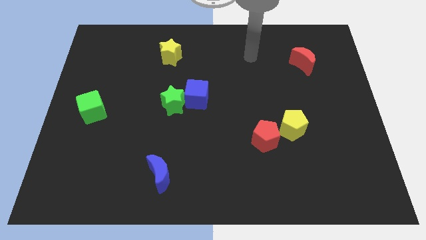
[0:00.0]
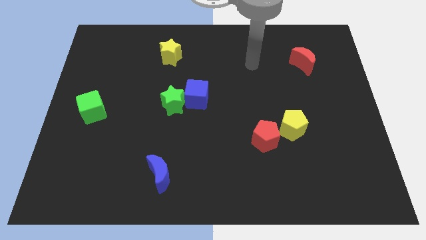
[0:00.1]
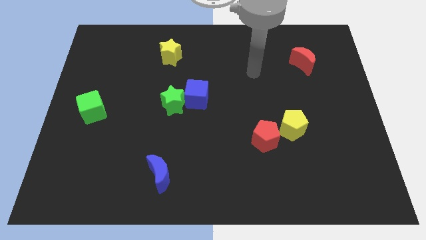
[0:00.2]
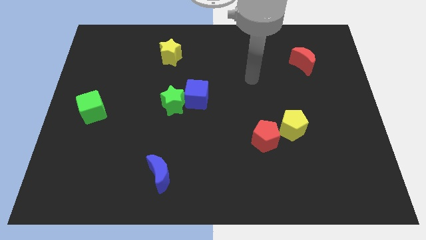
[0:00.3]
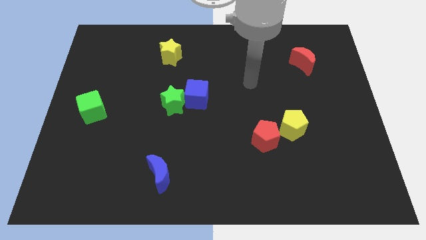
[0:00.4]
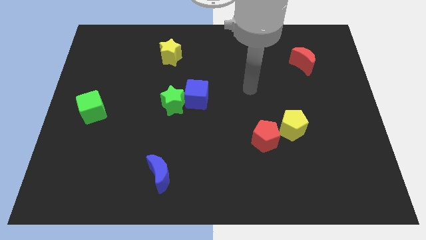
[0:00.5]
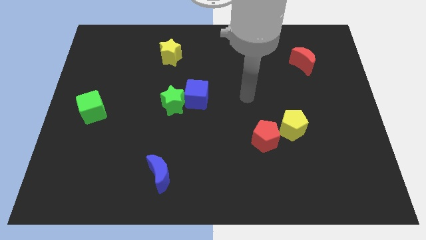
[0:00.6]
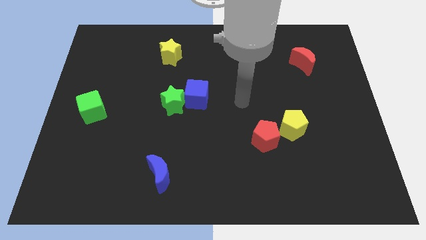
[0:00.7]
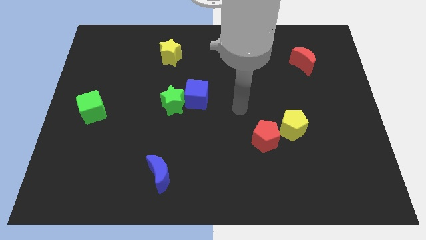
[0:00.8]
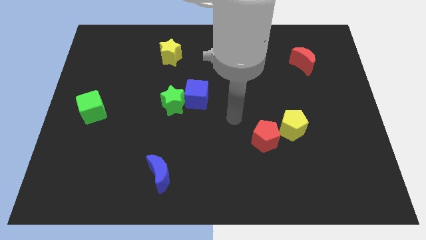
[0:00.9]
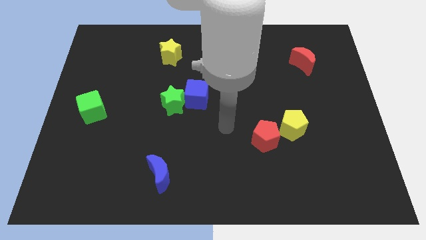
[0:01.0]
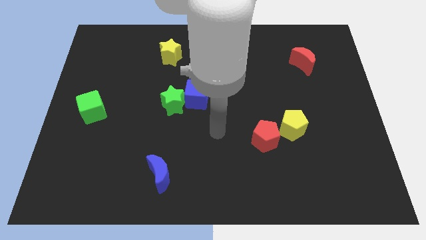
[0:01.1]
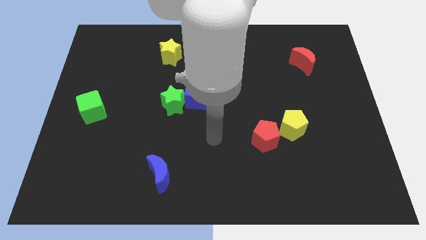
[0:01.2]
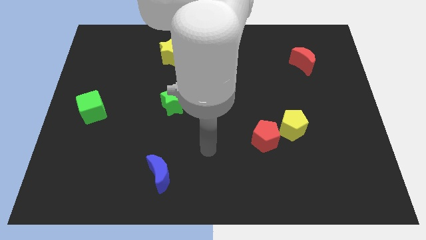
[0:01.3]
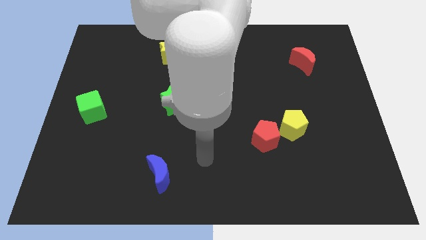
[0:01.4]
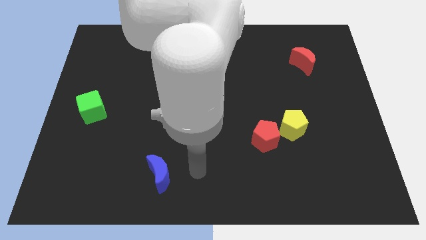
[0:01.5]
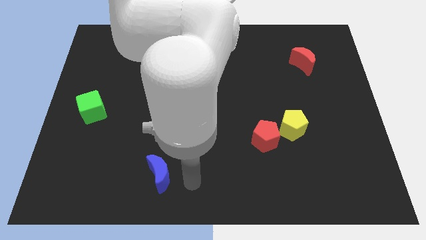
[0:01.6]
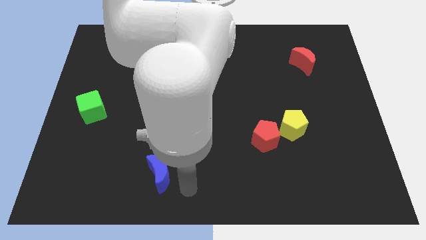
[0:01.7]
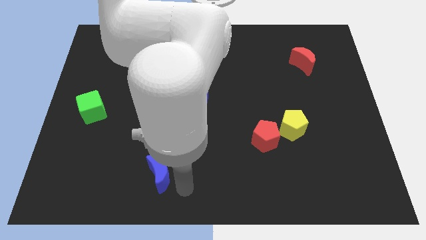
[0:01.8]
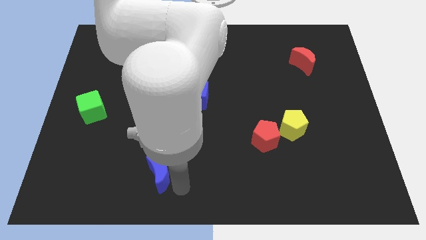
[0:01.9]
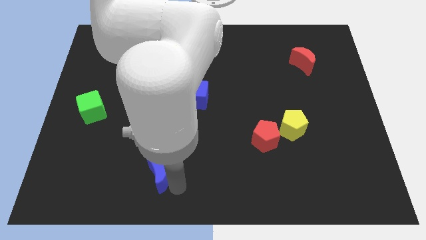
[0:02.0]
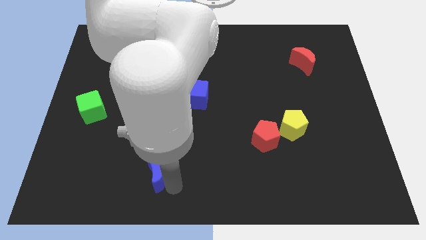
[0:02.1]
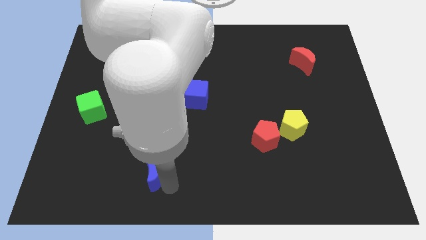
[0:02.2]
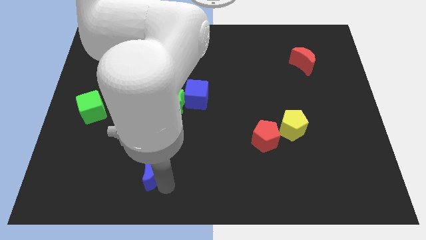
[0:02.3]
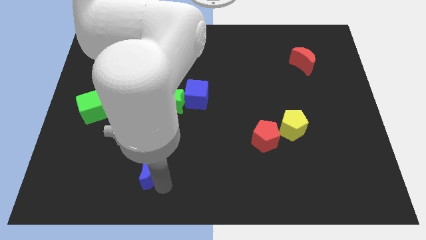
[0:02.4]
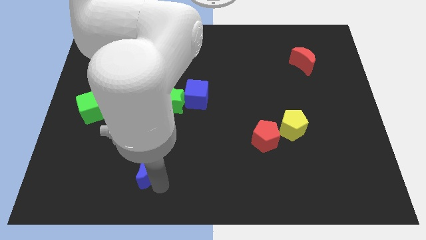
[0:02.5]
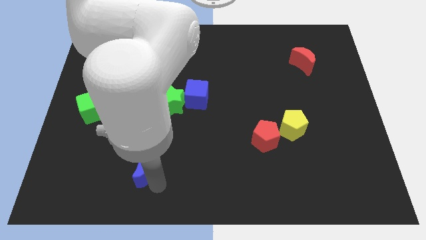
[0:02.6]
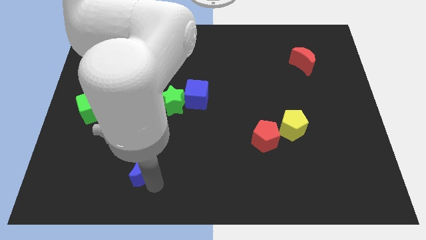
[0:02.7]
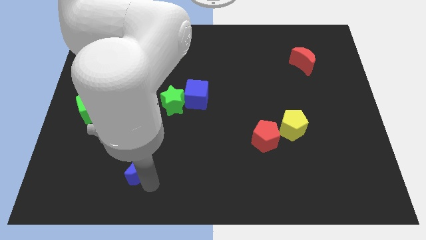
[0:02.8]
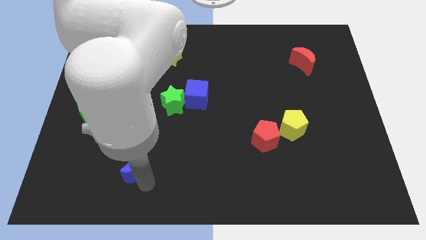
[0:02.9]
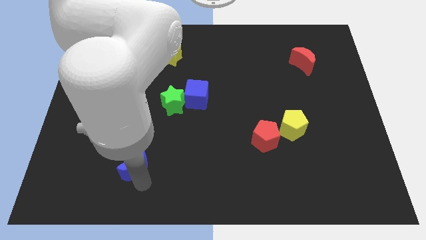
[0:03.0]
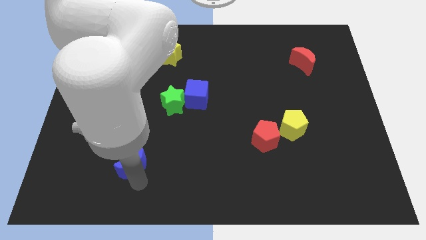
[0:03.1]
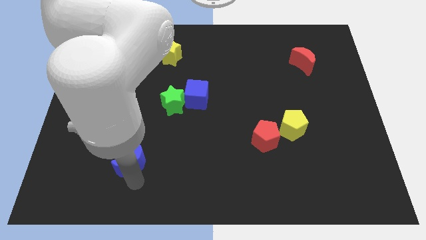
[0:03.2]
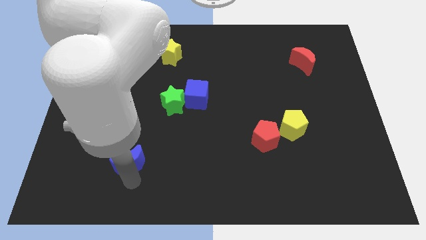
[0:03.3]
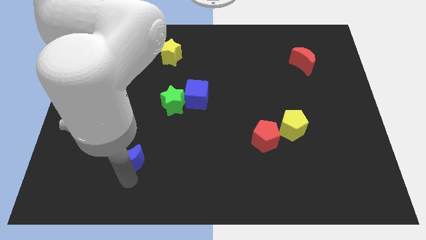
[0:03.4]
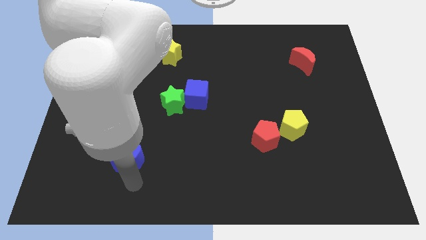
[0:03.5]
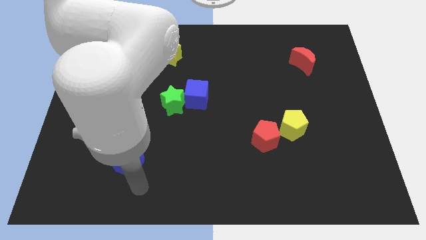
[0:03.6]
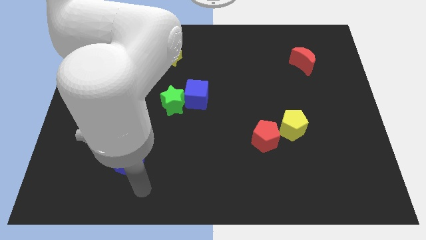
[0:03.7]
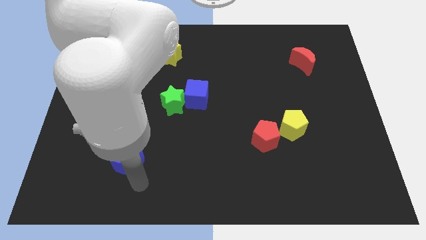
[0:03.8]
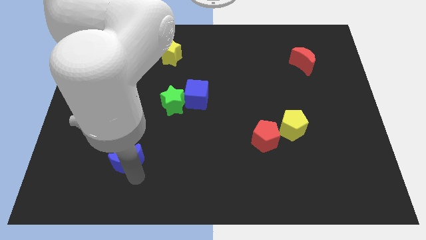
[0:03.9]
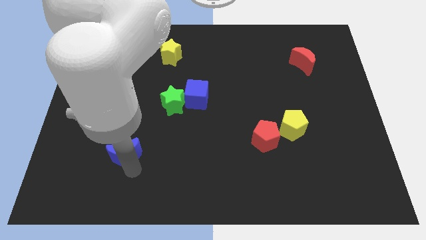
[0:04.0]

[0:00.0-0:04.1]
slide the blue moon somewhat up and left

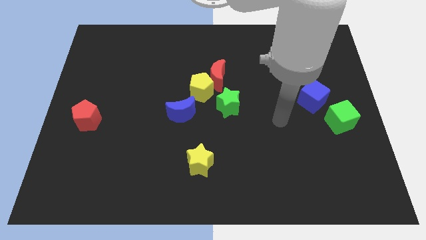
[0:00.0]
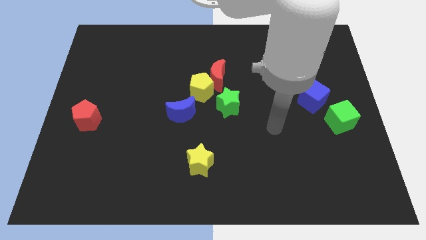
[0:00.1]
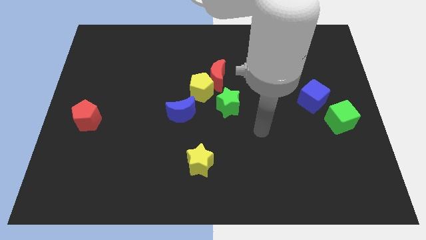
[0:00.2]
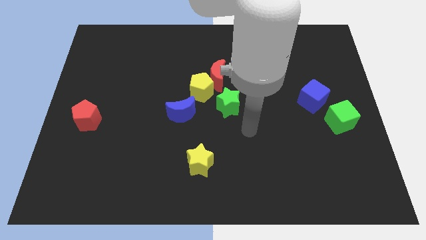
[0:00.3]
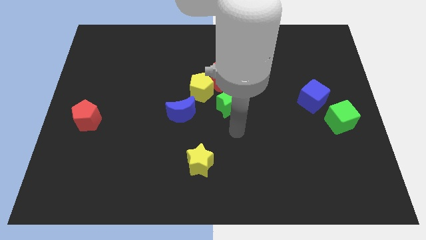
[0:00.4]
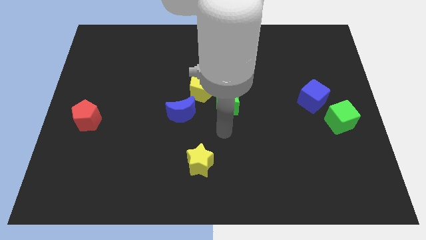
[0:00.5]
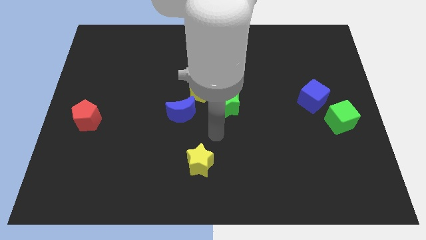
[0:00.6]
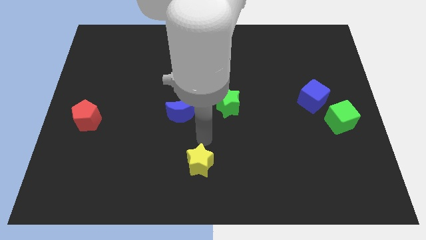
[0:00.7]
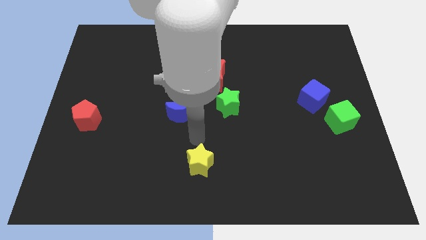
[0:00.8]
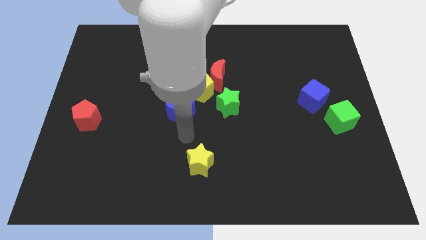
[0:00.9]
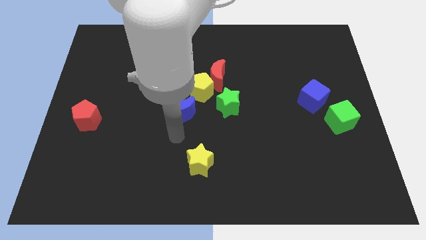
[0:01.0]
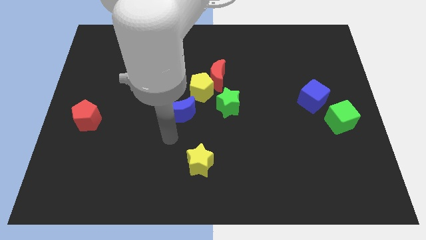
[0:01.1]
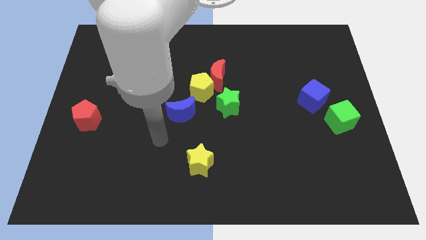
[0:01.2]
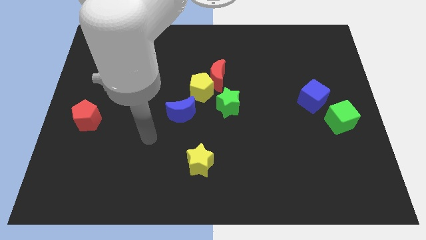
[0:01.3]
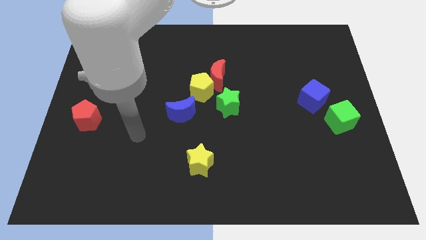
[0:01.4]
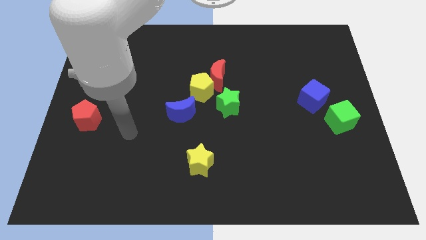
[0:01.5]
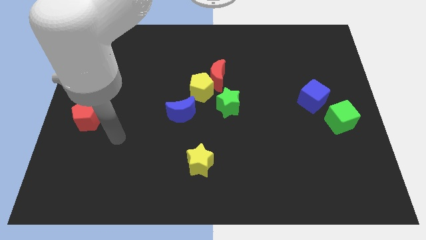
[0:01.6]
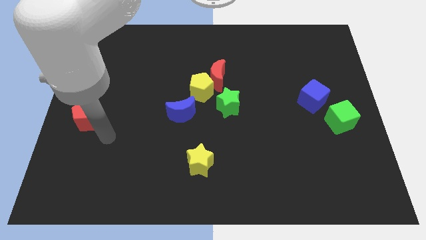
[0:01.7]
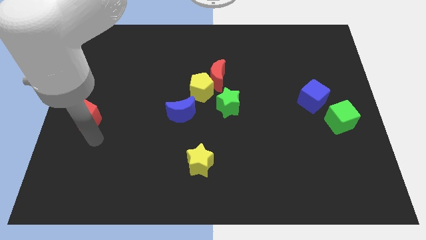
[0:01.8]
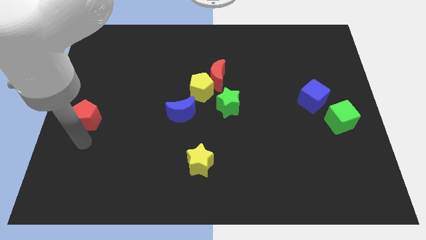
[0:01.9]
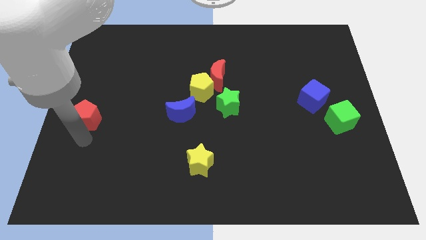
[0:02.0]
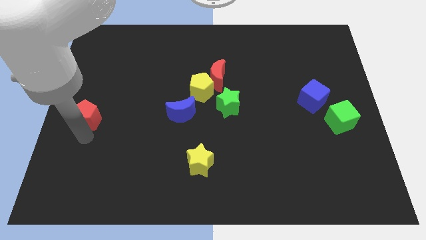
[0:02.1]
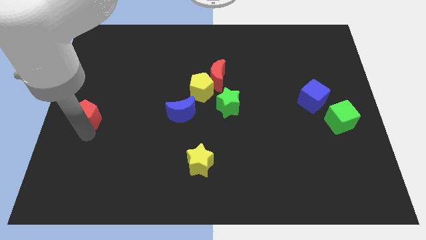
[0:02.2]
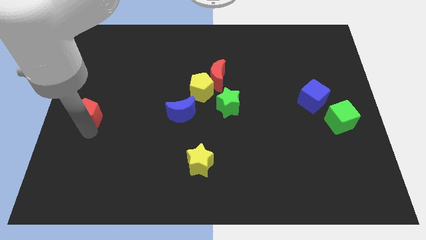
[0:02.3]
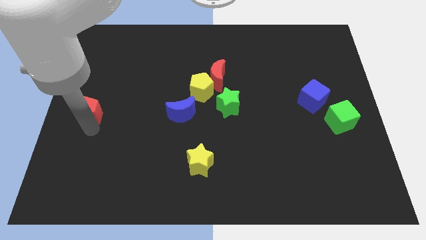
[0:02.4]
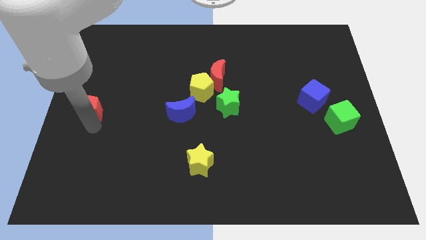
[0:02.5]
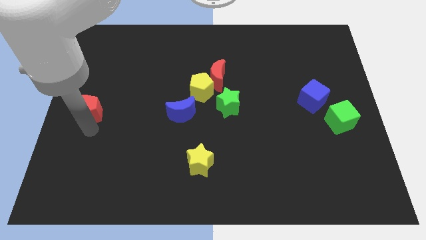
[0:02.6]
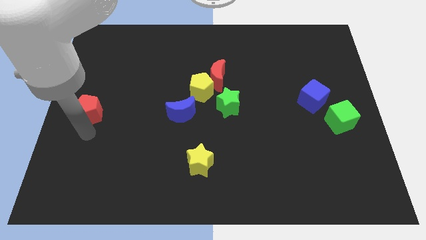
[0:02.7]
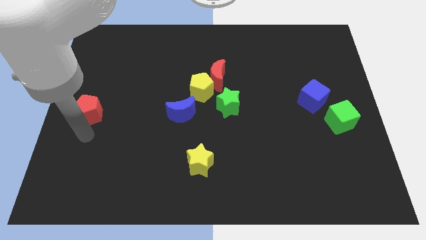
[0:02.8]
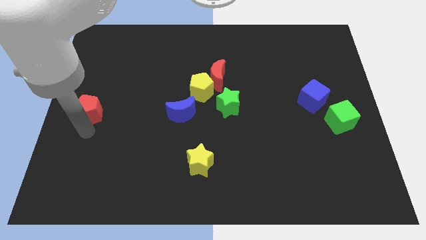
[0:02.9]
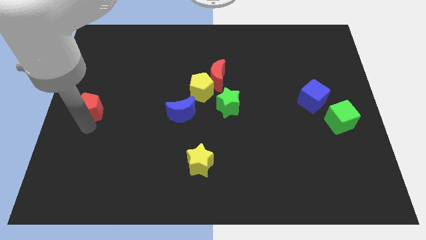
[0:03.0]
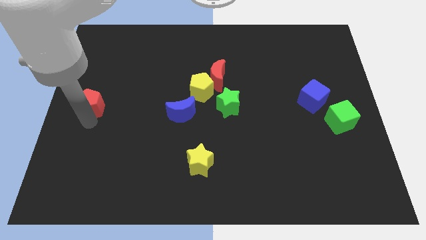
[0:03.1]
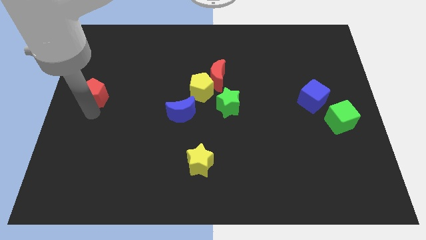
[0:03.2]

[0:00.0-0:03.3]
slightly push the red pentagon upwards

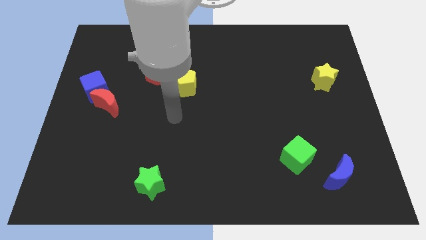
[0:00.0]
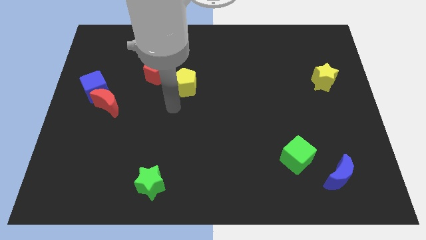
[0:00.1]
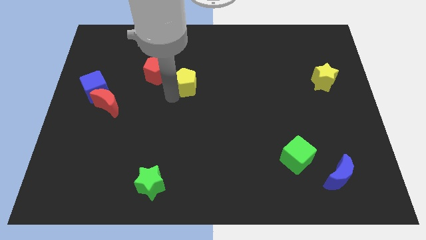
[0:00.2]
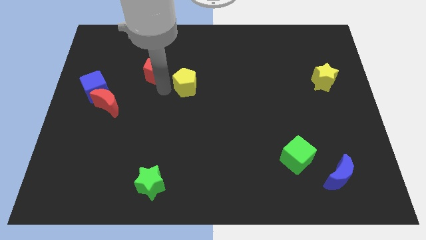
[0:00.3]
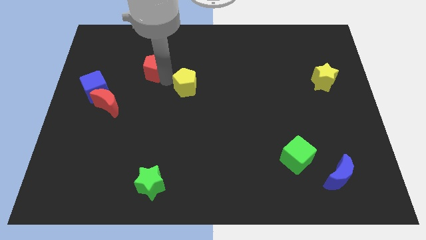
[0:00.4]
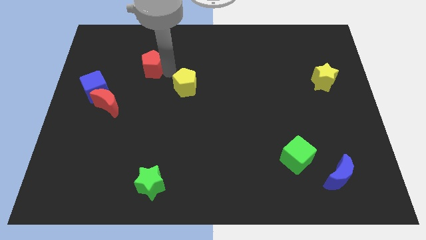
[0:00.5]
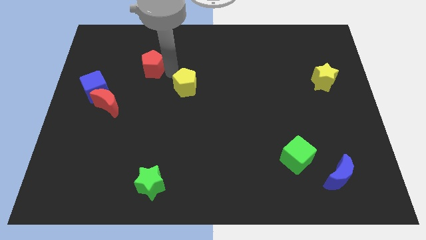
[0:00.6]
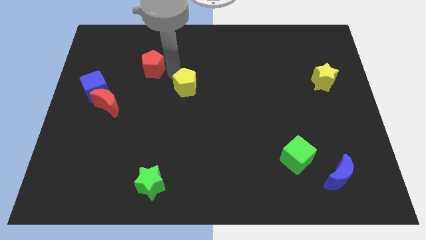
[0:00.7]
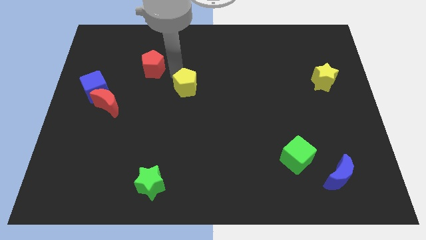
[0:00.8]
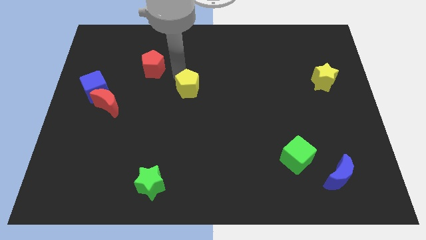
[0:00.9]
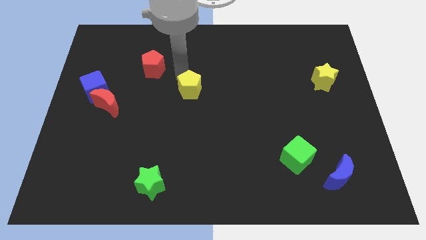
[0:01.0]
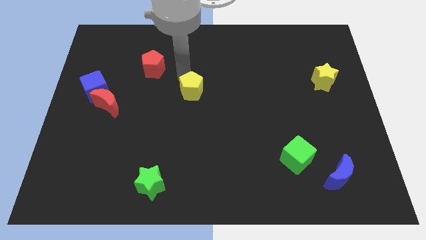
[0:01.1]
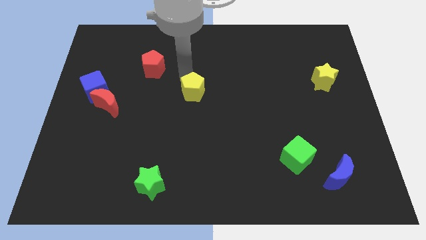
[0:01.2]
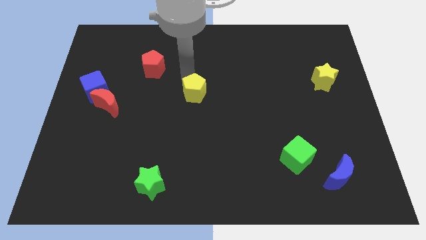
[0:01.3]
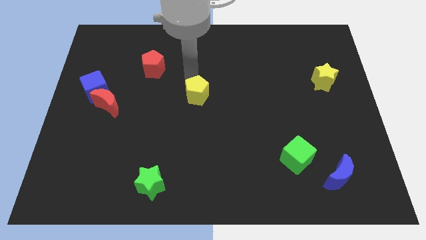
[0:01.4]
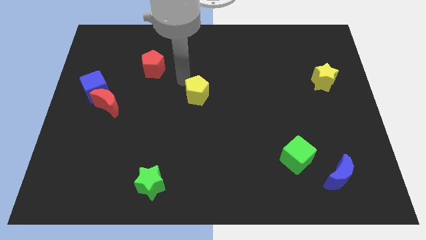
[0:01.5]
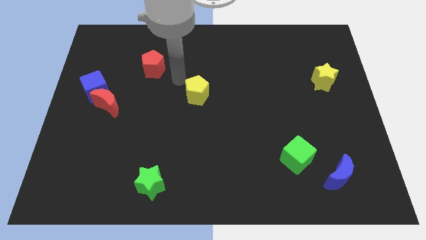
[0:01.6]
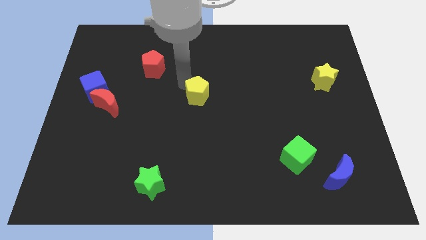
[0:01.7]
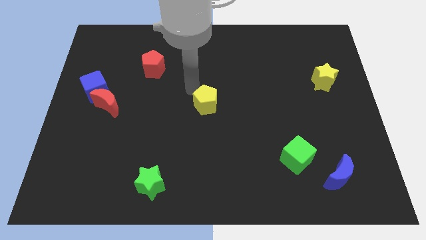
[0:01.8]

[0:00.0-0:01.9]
slightly move the yellow pentagon downwards and right
